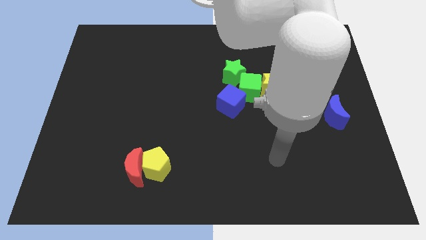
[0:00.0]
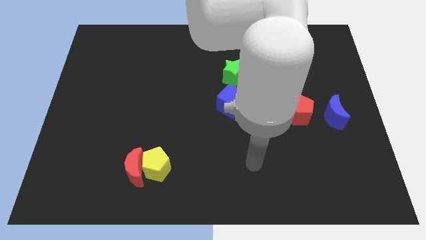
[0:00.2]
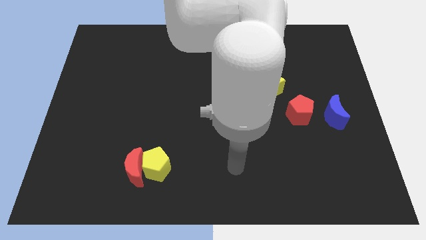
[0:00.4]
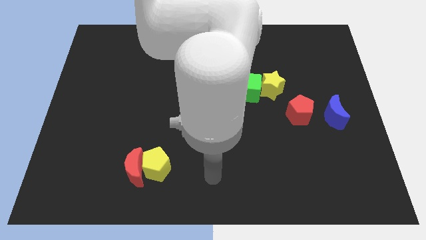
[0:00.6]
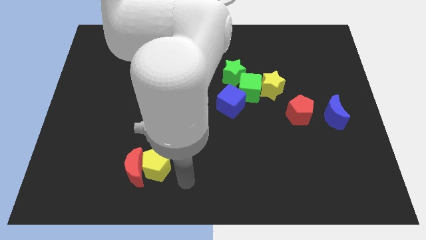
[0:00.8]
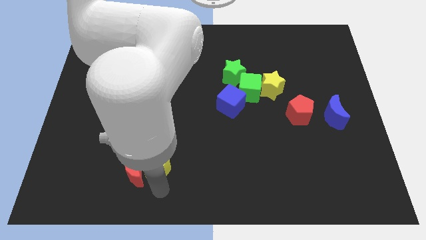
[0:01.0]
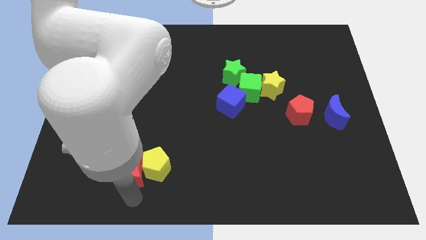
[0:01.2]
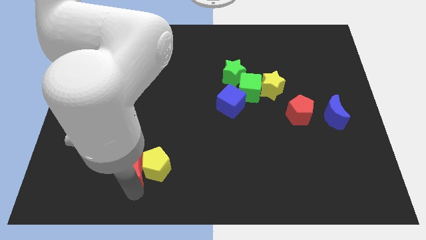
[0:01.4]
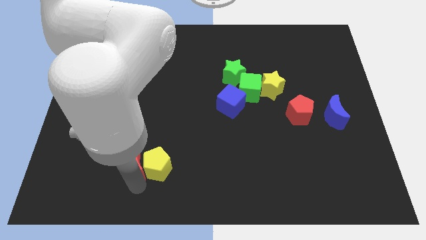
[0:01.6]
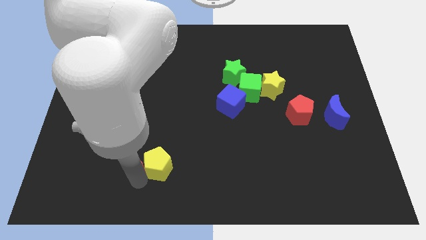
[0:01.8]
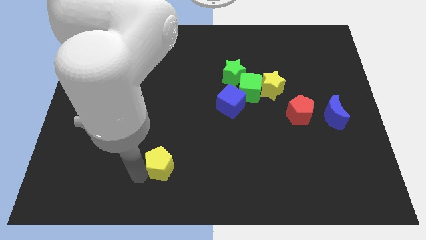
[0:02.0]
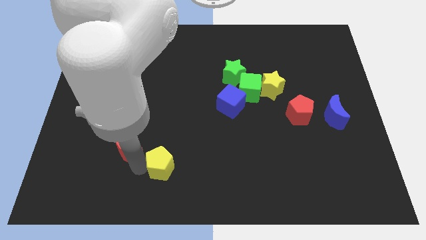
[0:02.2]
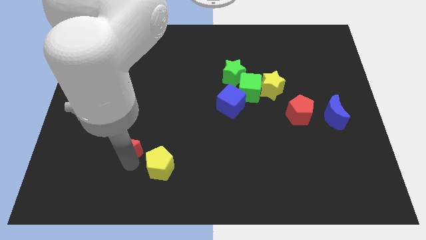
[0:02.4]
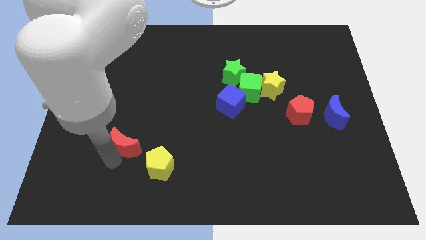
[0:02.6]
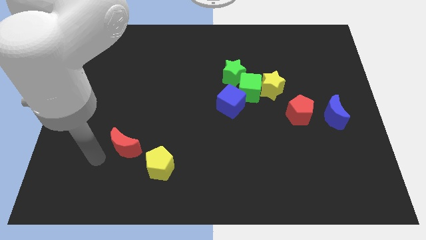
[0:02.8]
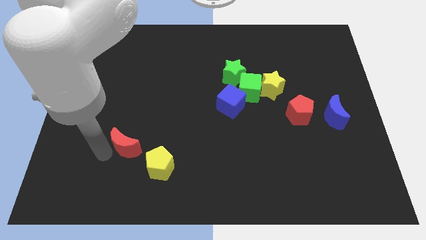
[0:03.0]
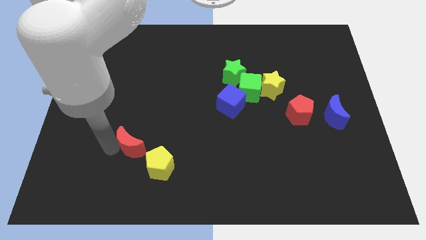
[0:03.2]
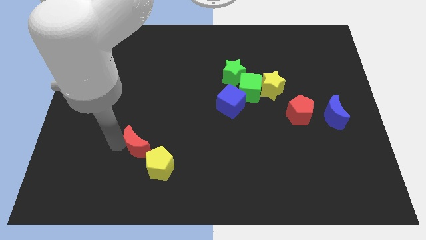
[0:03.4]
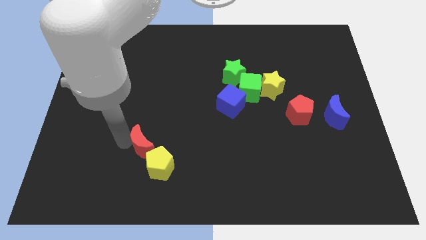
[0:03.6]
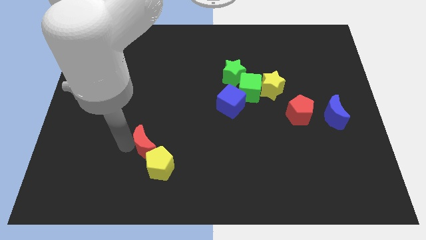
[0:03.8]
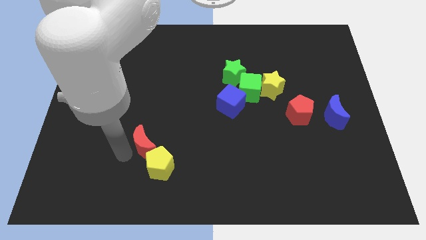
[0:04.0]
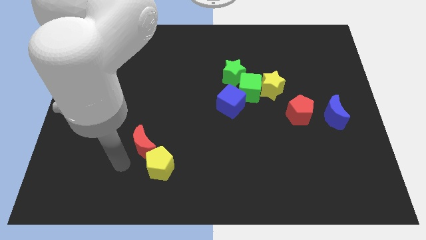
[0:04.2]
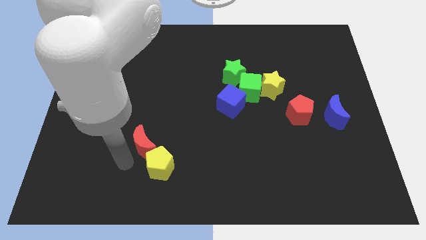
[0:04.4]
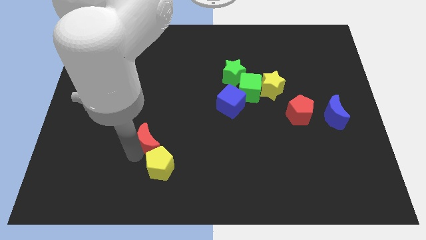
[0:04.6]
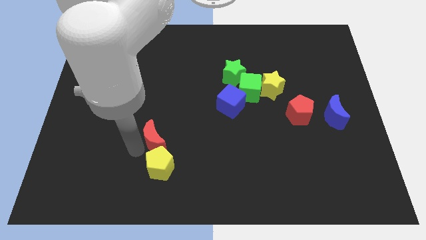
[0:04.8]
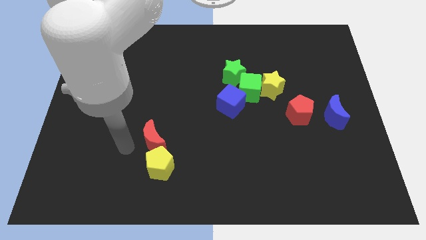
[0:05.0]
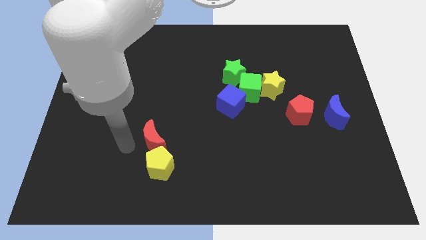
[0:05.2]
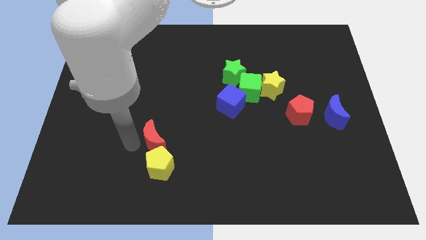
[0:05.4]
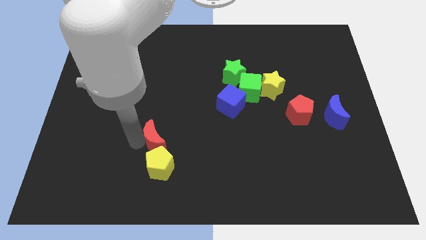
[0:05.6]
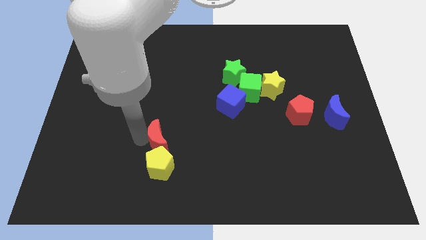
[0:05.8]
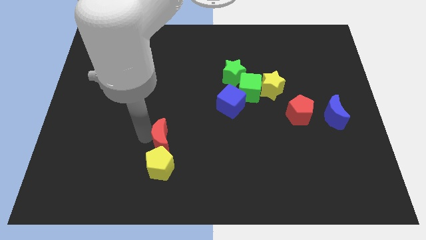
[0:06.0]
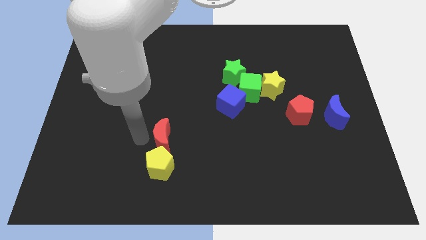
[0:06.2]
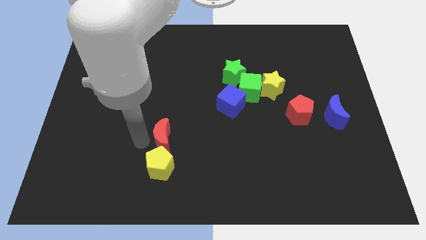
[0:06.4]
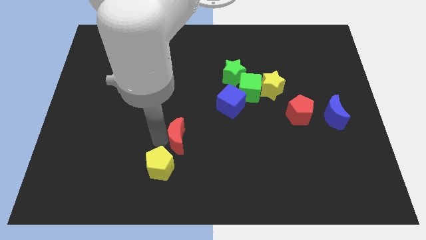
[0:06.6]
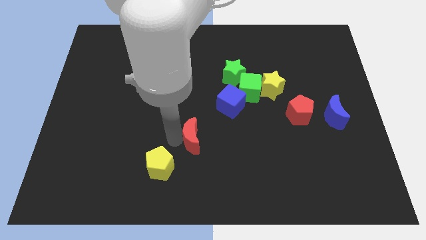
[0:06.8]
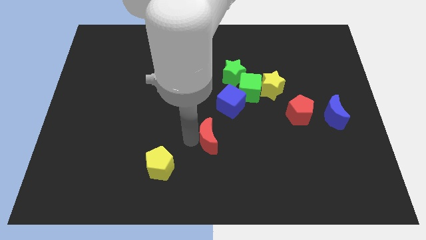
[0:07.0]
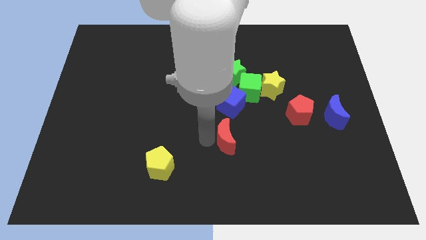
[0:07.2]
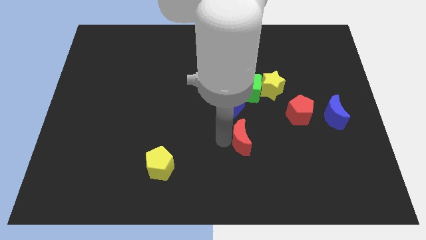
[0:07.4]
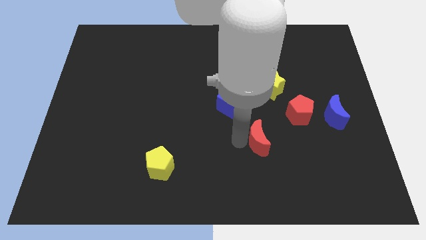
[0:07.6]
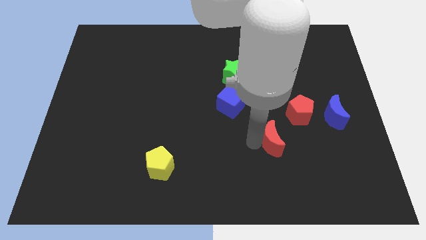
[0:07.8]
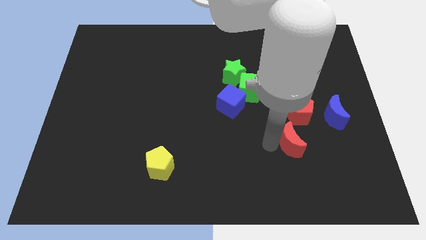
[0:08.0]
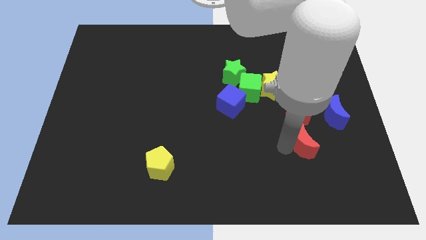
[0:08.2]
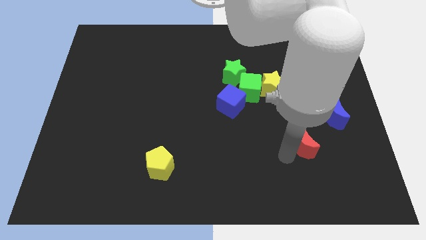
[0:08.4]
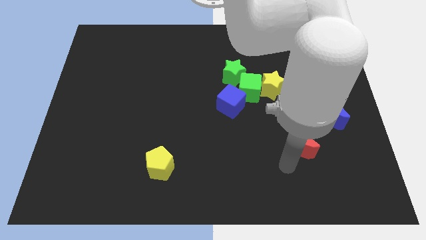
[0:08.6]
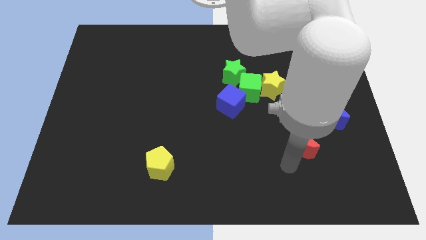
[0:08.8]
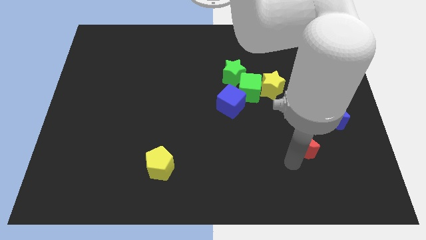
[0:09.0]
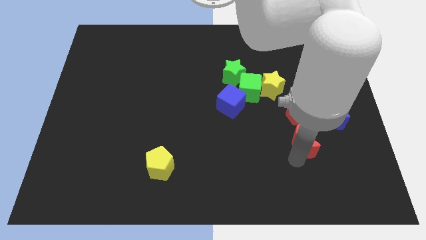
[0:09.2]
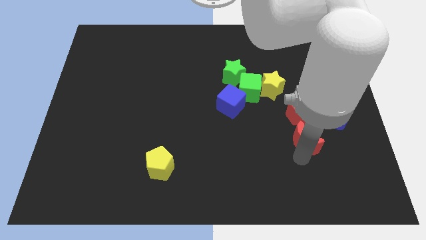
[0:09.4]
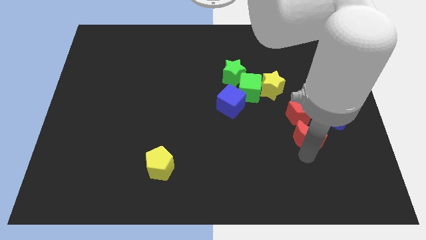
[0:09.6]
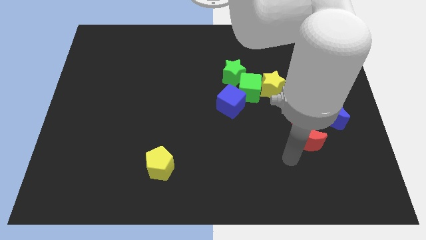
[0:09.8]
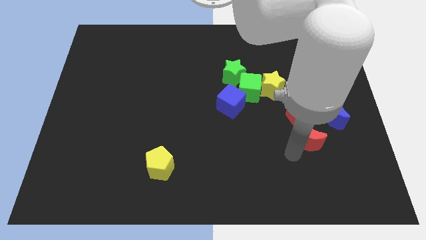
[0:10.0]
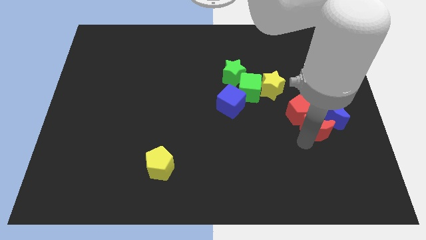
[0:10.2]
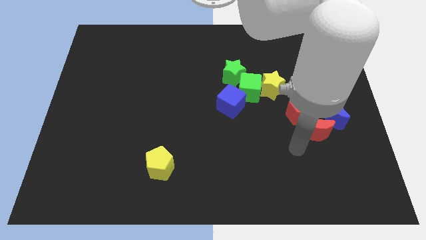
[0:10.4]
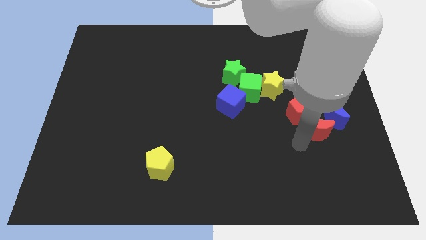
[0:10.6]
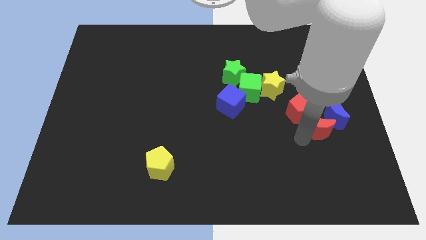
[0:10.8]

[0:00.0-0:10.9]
move the red moon towards the blue moon

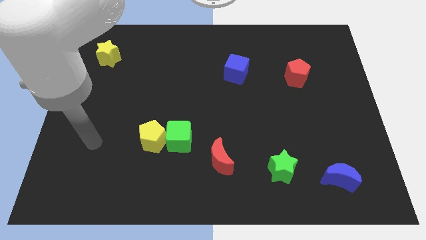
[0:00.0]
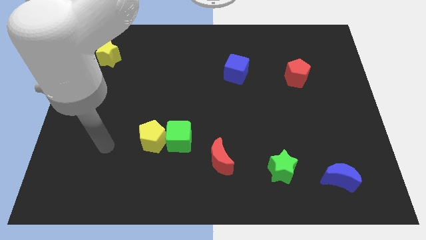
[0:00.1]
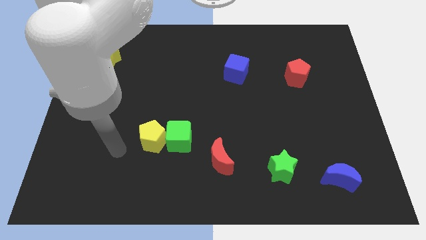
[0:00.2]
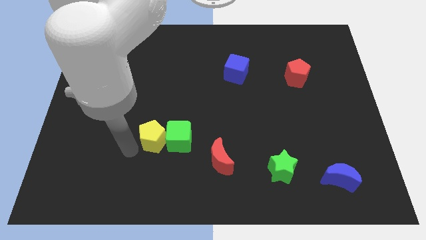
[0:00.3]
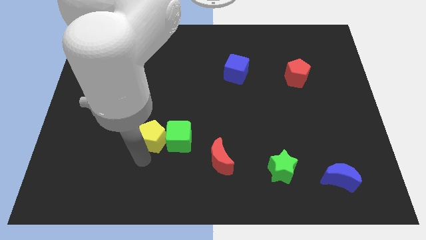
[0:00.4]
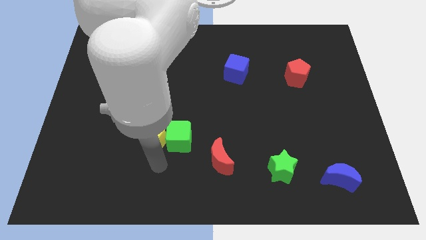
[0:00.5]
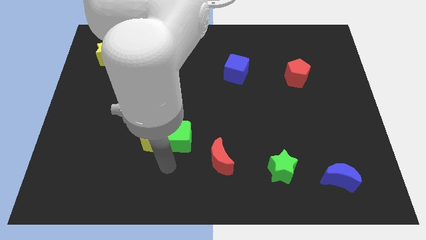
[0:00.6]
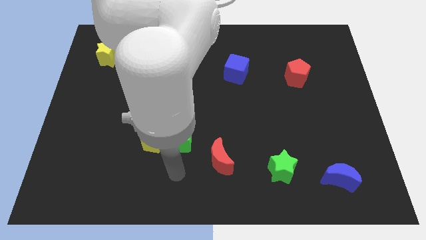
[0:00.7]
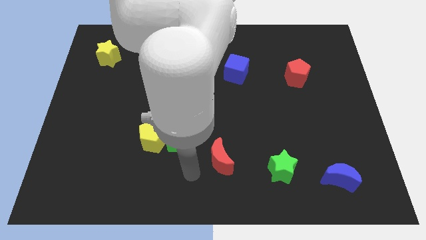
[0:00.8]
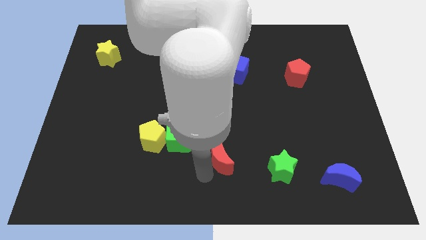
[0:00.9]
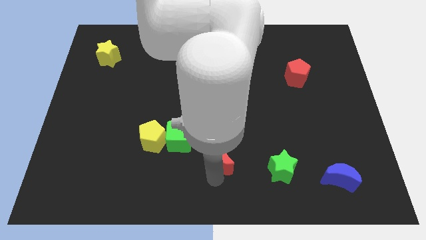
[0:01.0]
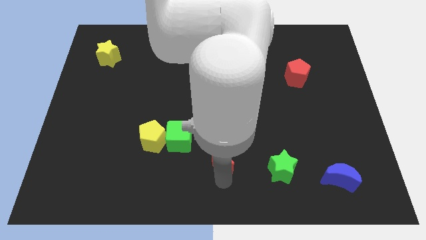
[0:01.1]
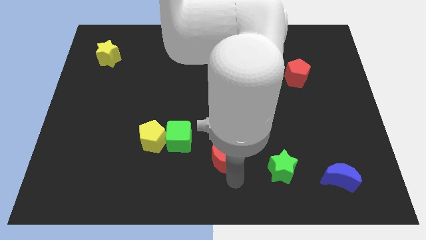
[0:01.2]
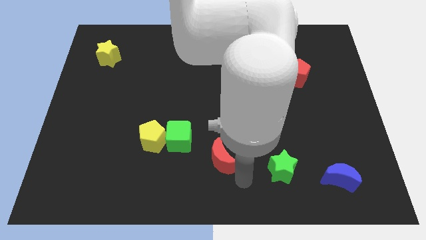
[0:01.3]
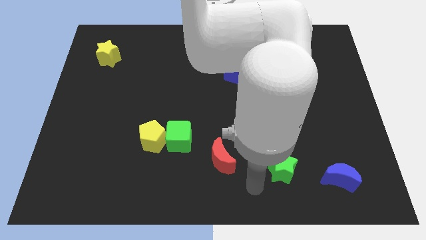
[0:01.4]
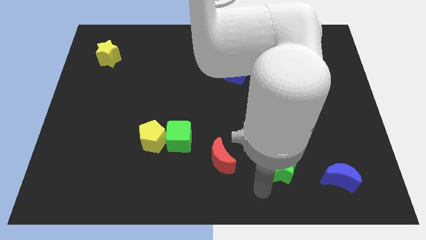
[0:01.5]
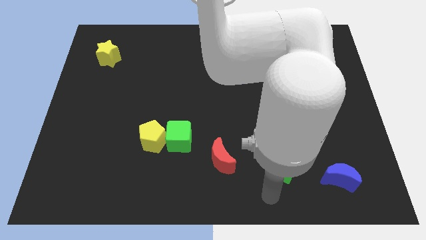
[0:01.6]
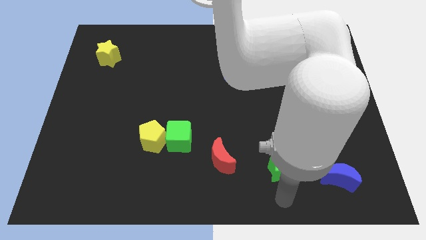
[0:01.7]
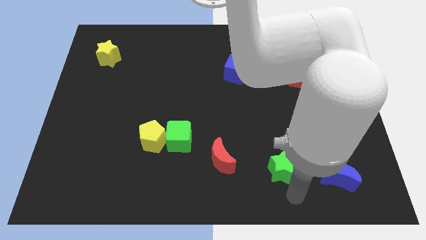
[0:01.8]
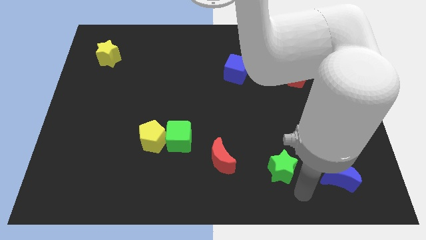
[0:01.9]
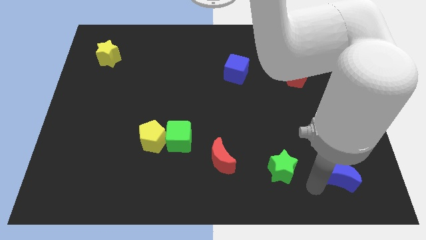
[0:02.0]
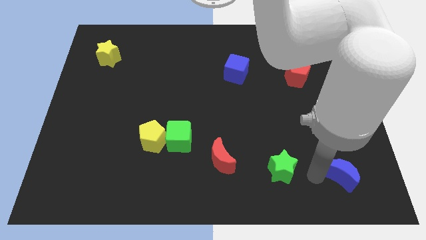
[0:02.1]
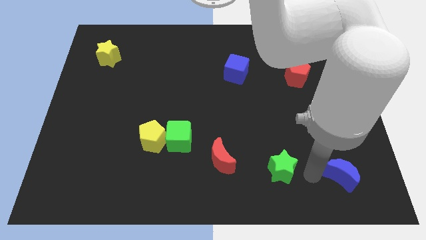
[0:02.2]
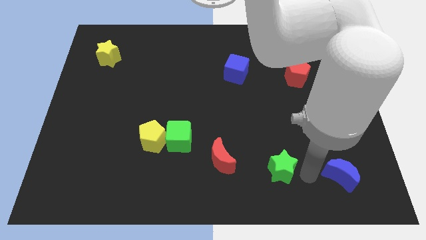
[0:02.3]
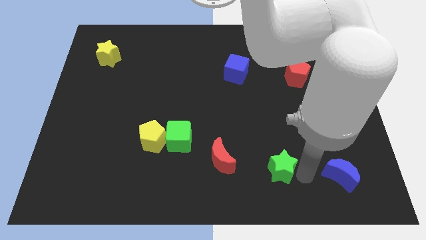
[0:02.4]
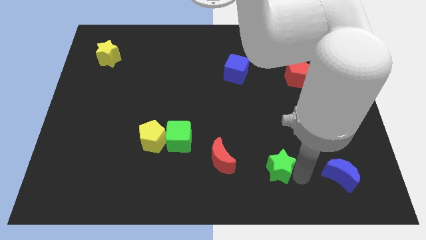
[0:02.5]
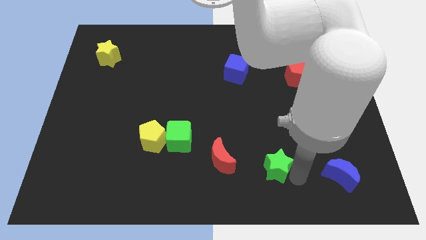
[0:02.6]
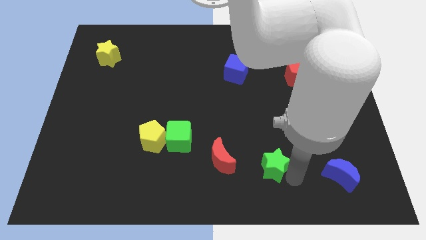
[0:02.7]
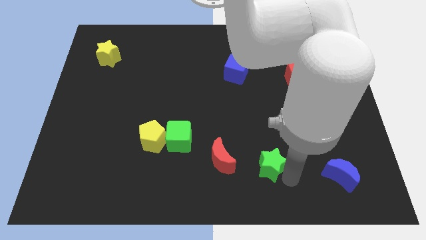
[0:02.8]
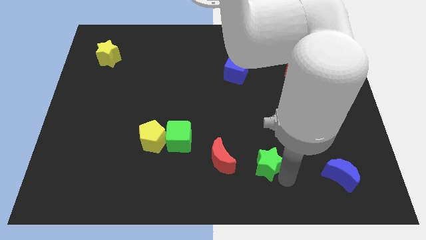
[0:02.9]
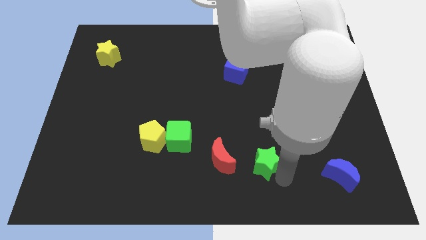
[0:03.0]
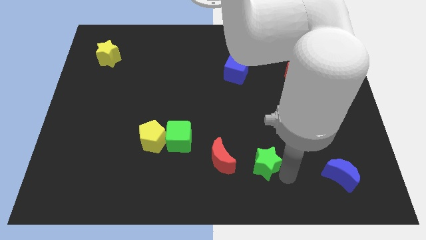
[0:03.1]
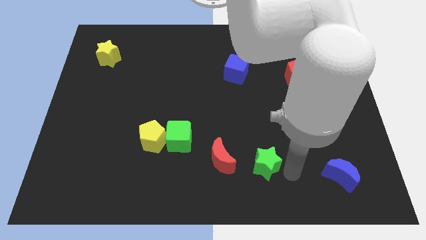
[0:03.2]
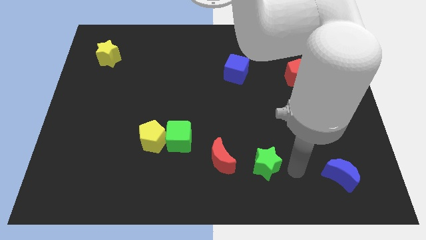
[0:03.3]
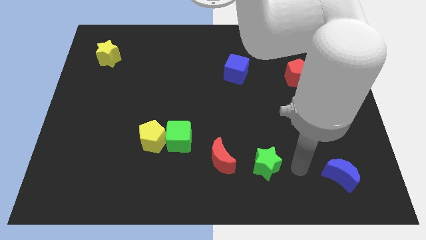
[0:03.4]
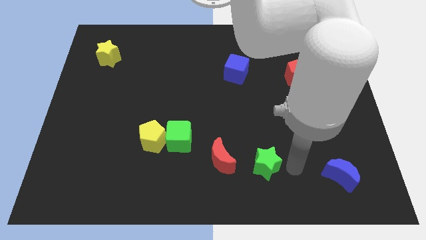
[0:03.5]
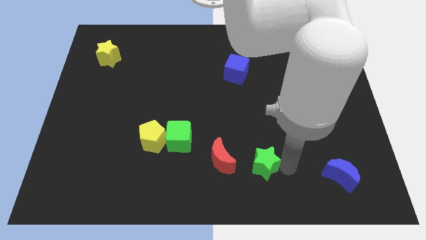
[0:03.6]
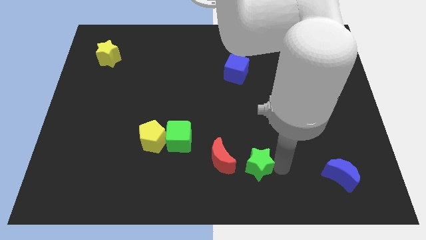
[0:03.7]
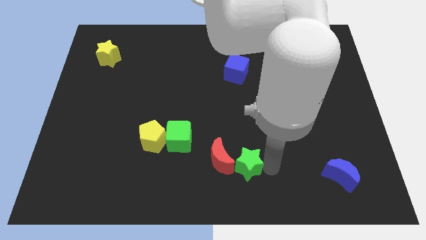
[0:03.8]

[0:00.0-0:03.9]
push the green star next to the red moon
